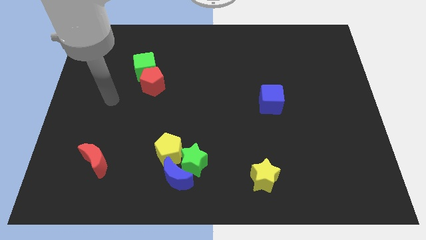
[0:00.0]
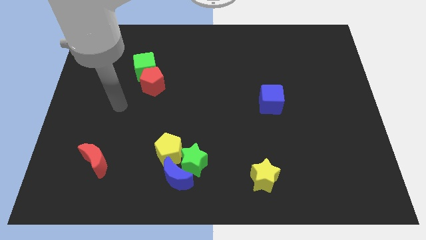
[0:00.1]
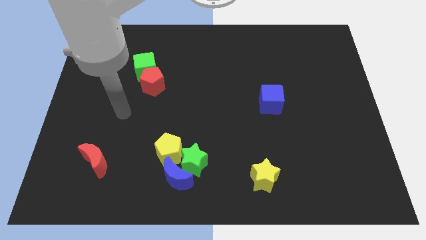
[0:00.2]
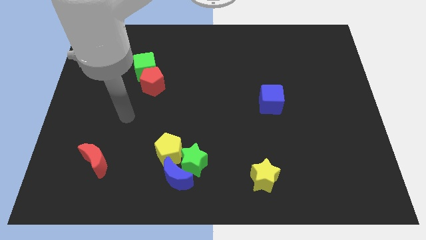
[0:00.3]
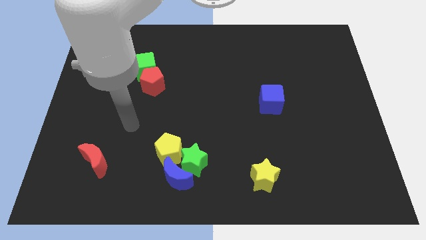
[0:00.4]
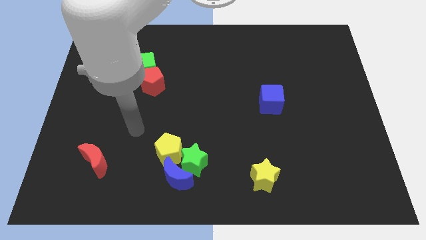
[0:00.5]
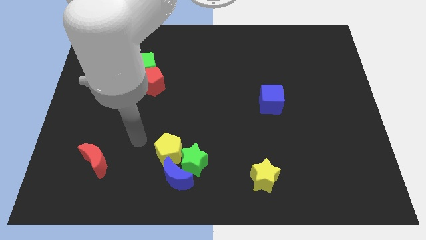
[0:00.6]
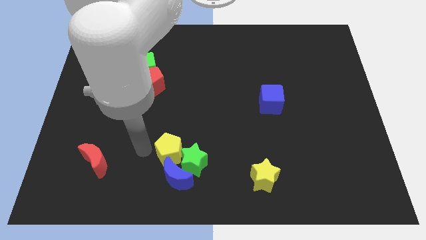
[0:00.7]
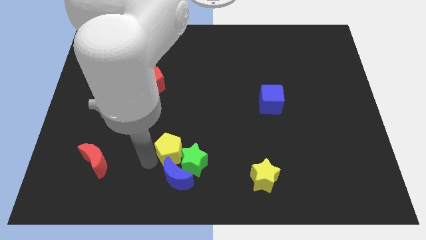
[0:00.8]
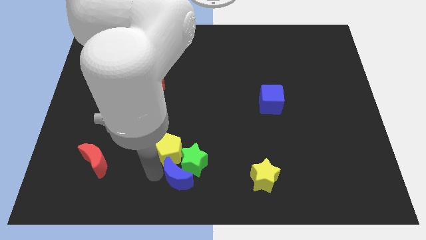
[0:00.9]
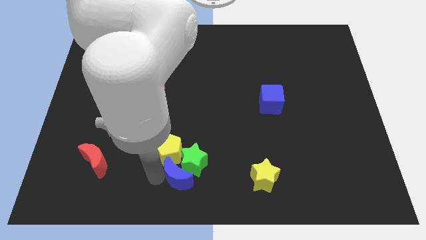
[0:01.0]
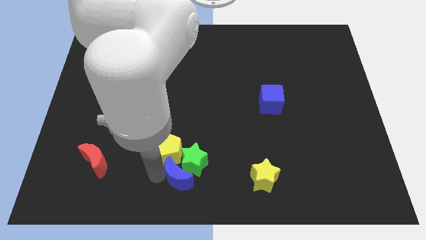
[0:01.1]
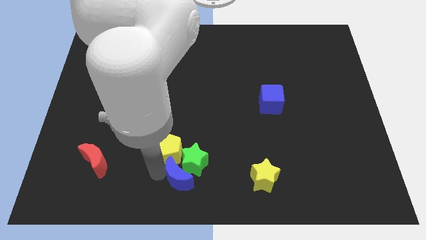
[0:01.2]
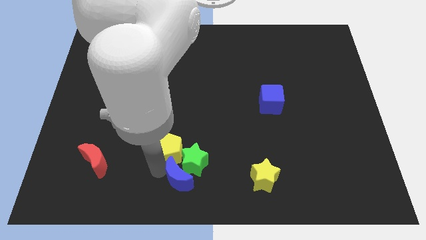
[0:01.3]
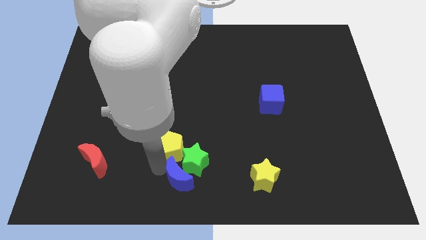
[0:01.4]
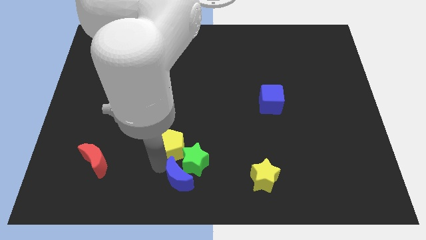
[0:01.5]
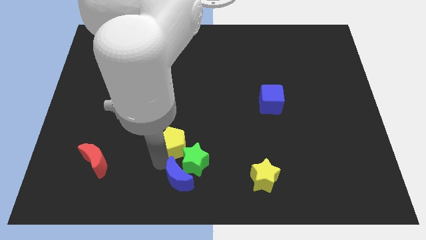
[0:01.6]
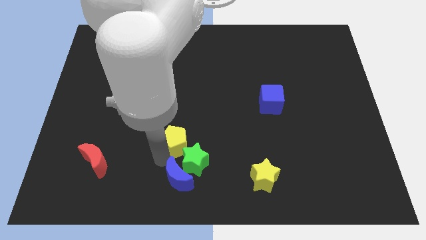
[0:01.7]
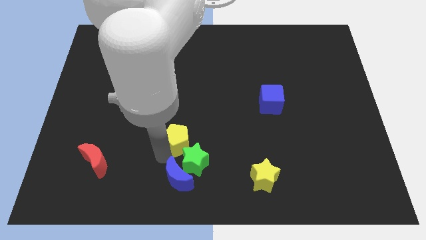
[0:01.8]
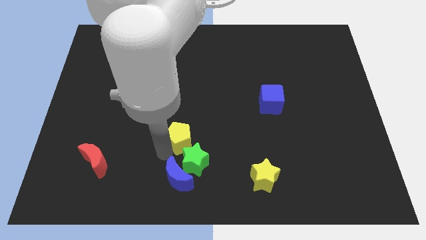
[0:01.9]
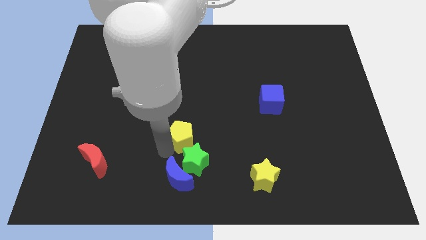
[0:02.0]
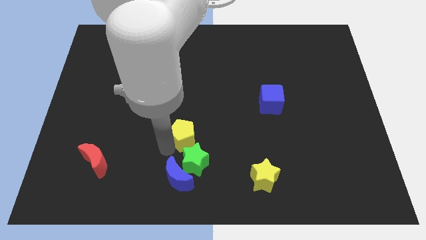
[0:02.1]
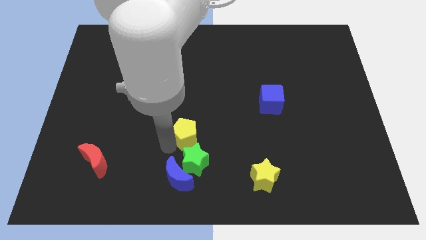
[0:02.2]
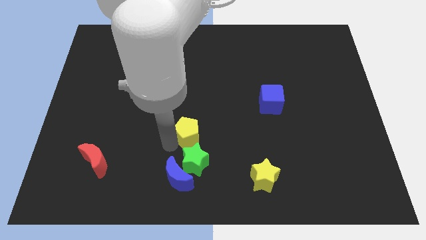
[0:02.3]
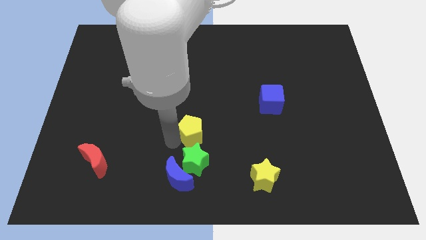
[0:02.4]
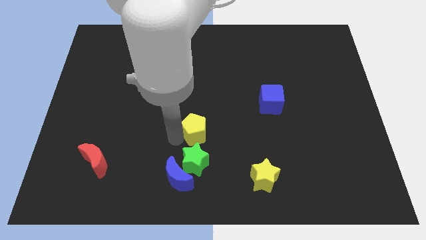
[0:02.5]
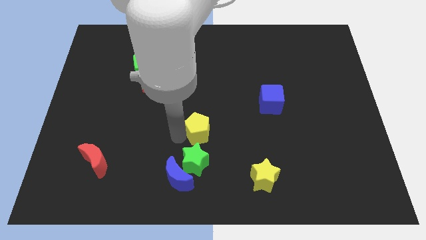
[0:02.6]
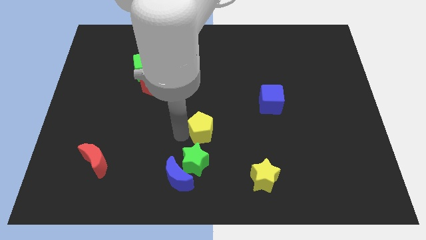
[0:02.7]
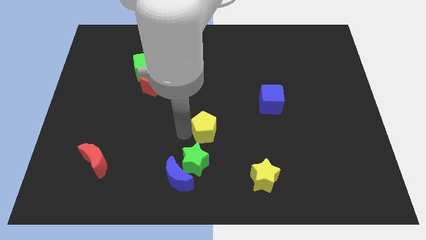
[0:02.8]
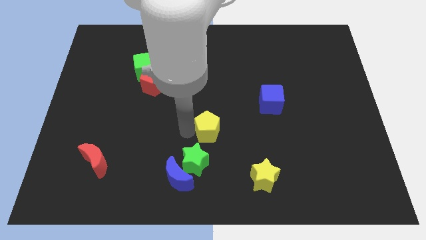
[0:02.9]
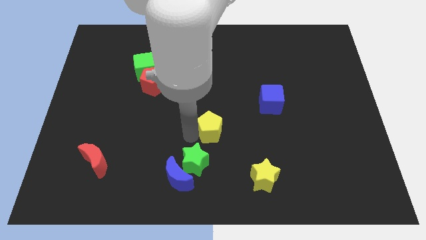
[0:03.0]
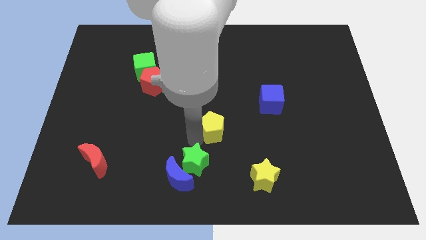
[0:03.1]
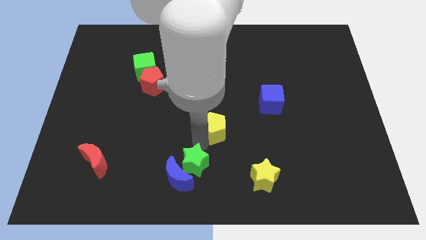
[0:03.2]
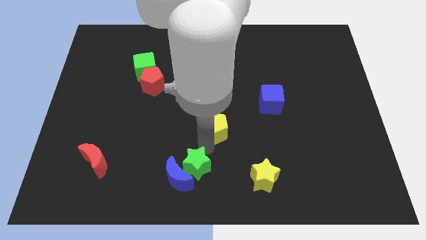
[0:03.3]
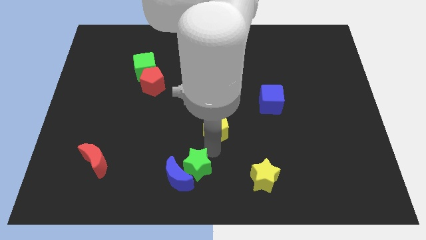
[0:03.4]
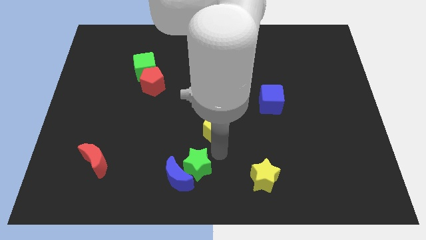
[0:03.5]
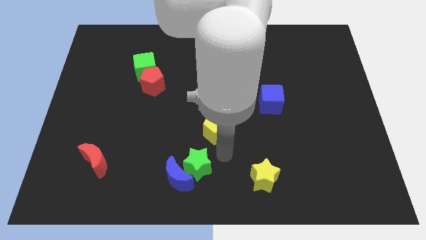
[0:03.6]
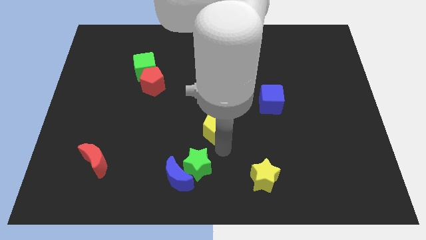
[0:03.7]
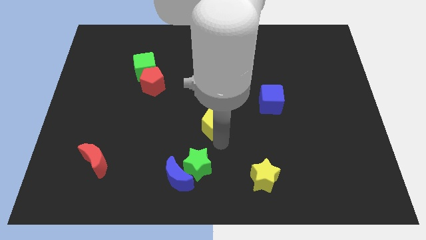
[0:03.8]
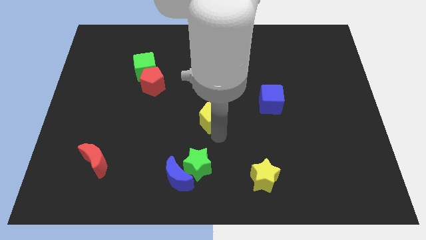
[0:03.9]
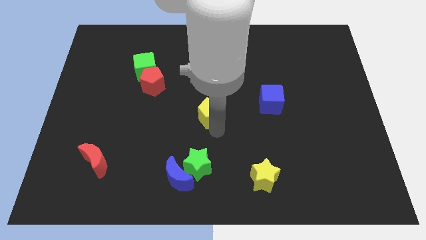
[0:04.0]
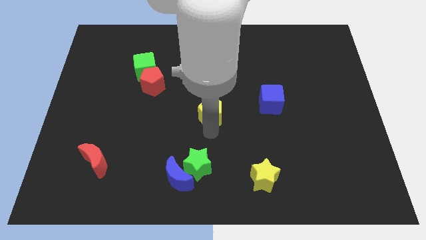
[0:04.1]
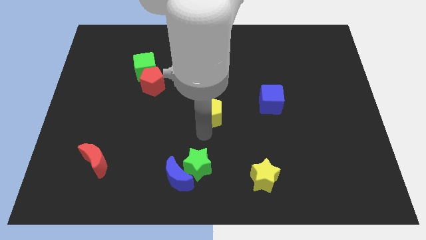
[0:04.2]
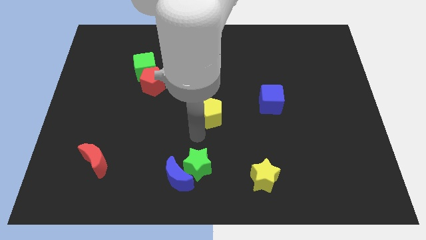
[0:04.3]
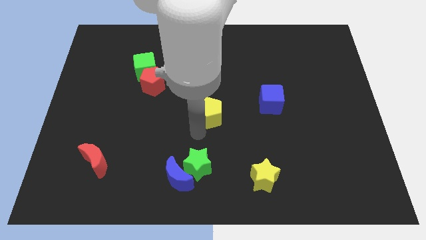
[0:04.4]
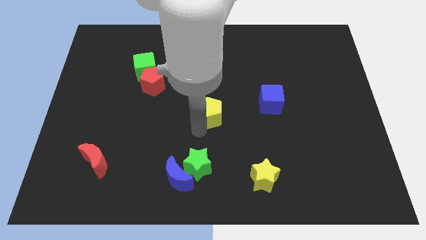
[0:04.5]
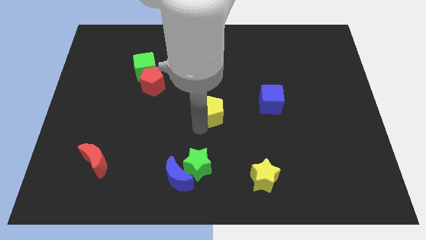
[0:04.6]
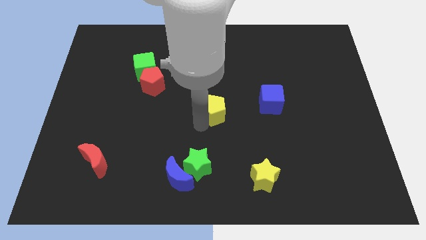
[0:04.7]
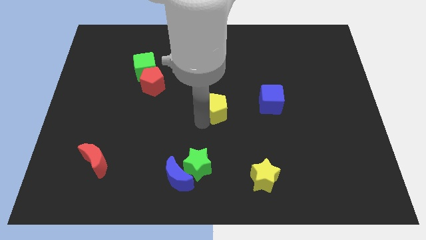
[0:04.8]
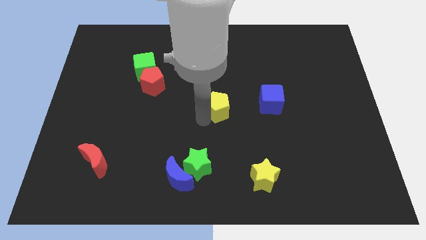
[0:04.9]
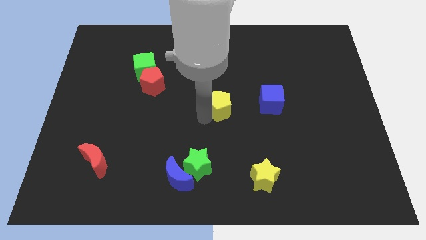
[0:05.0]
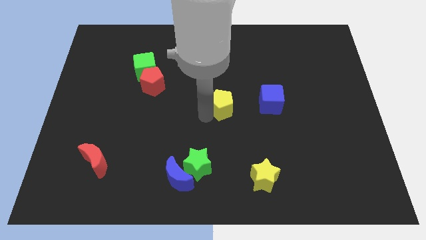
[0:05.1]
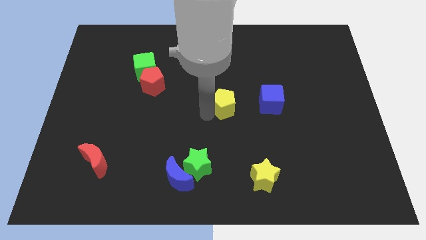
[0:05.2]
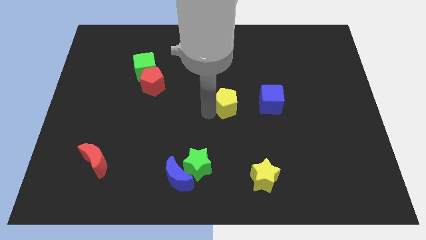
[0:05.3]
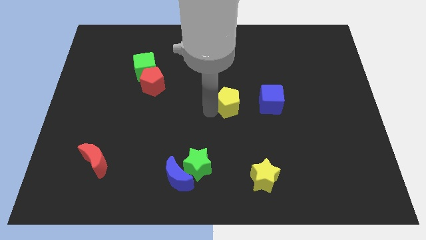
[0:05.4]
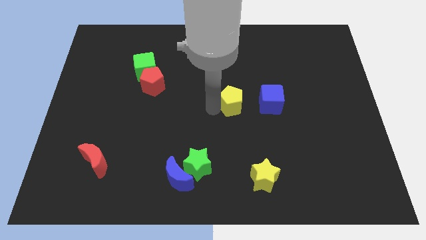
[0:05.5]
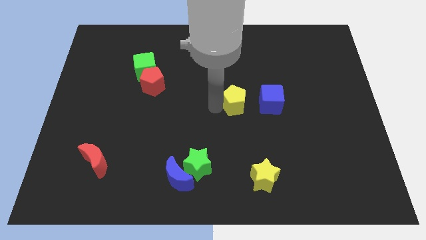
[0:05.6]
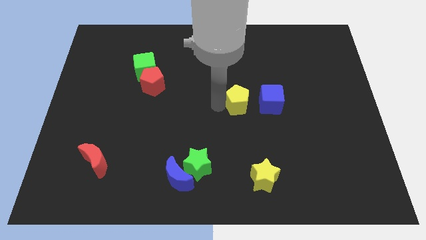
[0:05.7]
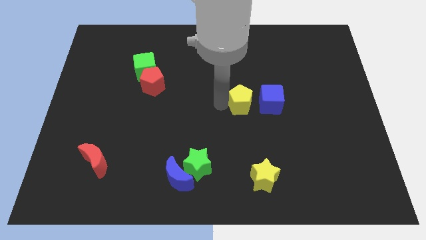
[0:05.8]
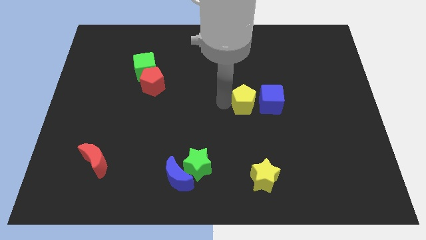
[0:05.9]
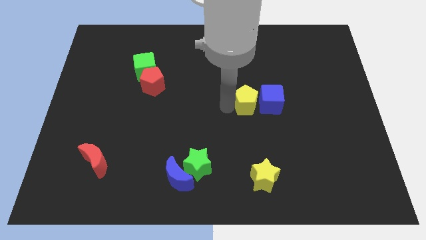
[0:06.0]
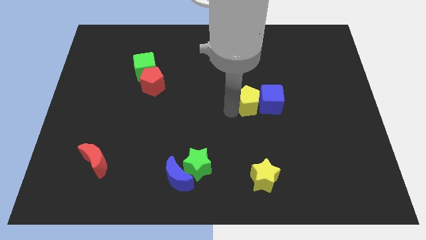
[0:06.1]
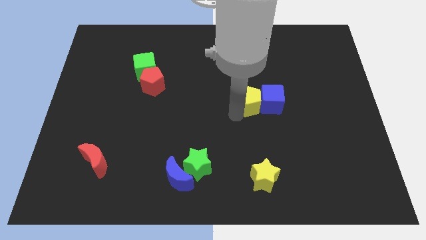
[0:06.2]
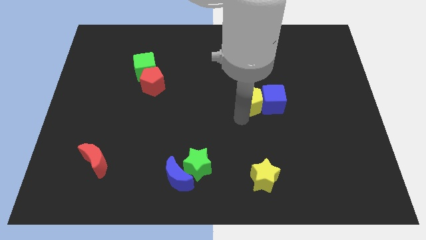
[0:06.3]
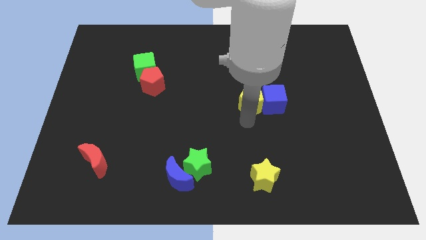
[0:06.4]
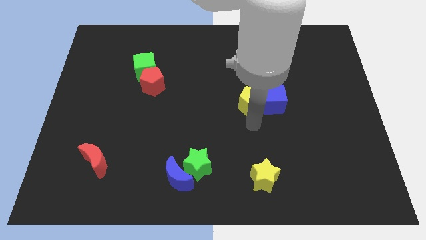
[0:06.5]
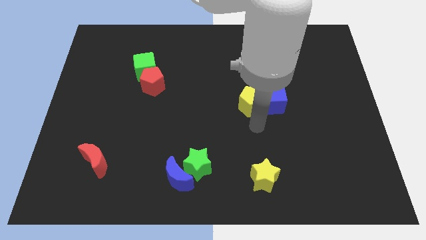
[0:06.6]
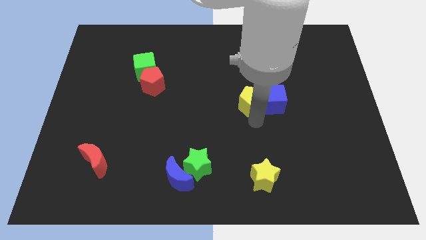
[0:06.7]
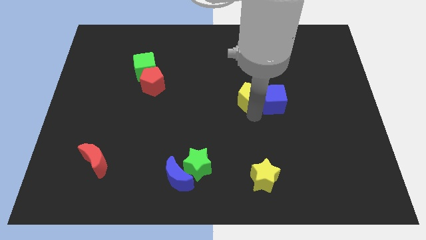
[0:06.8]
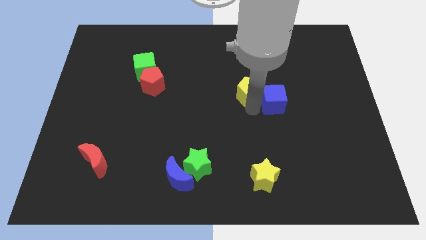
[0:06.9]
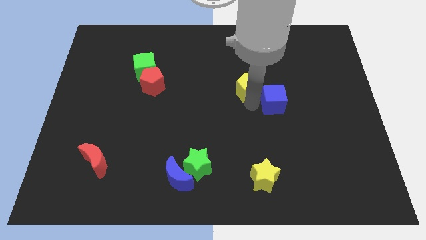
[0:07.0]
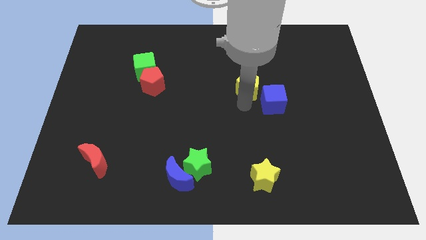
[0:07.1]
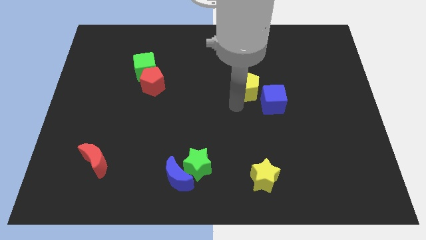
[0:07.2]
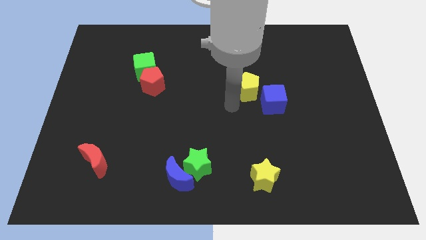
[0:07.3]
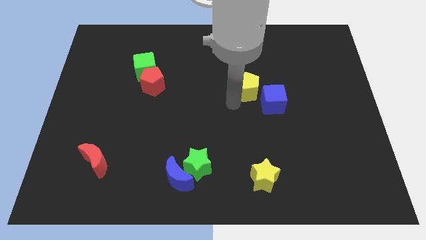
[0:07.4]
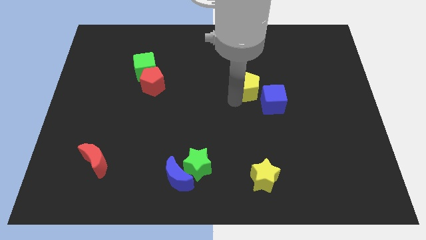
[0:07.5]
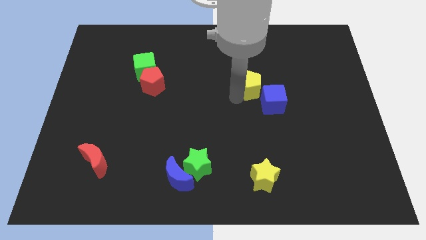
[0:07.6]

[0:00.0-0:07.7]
slide the yellow pentagon above the blue cube
